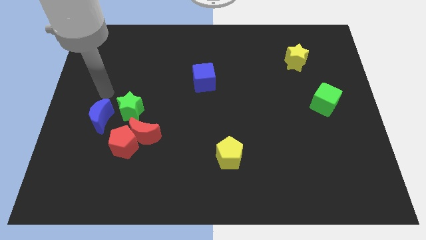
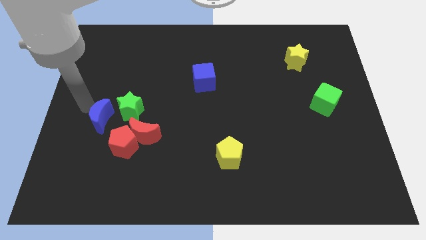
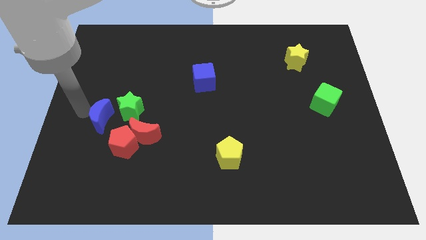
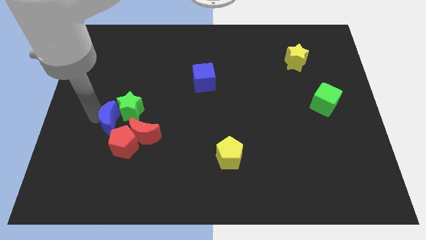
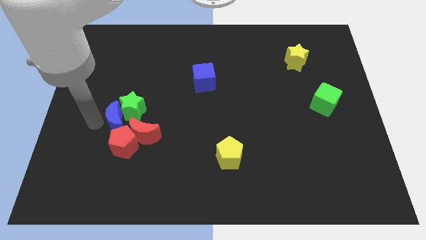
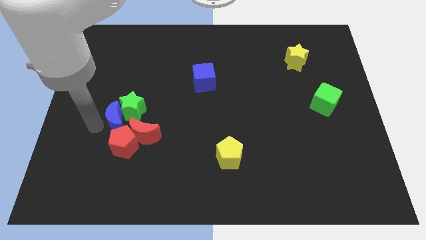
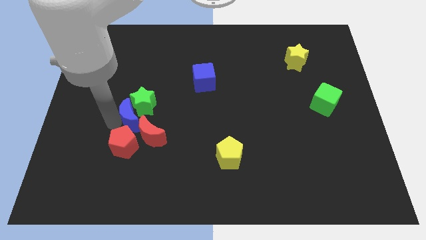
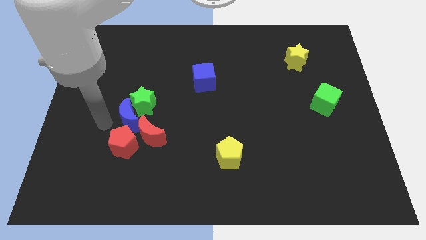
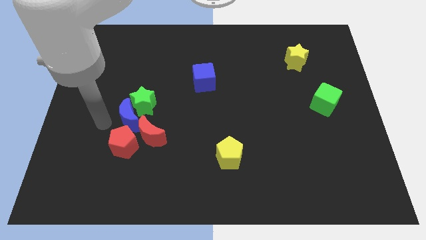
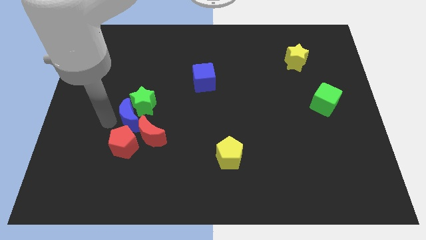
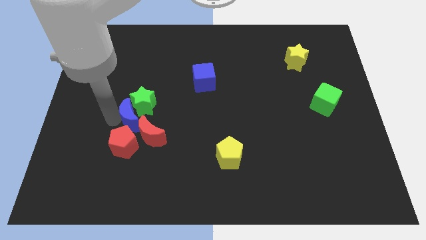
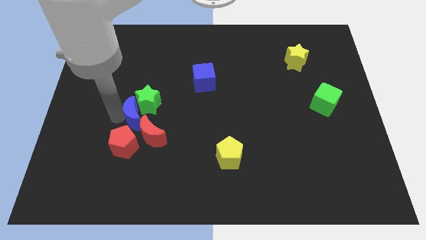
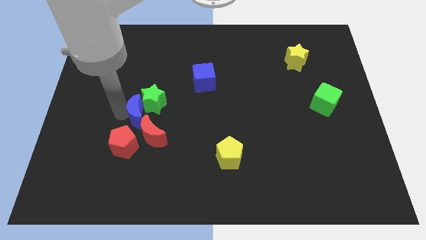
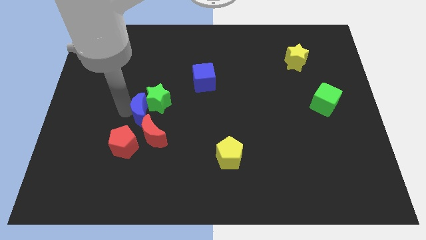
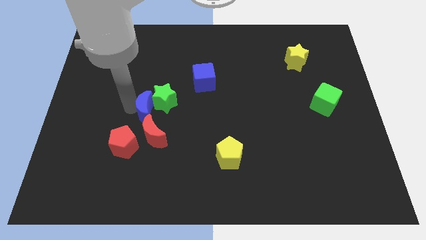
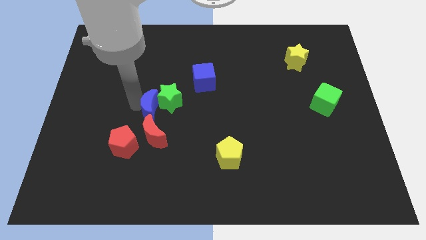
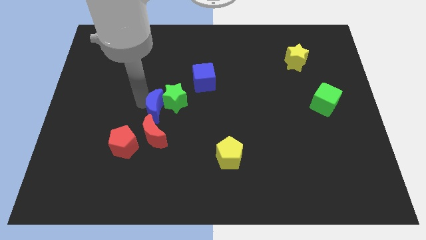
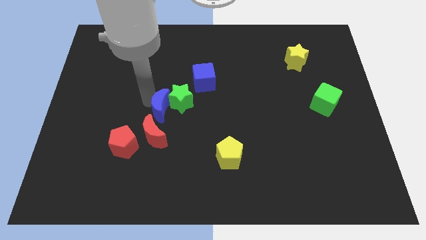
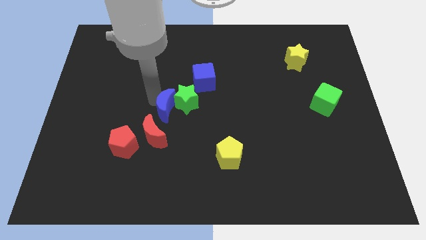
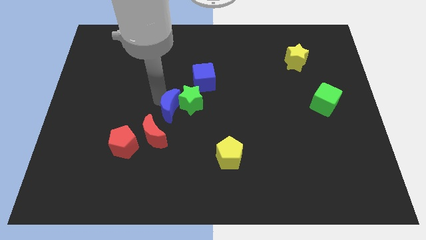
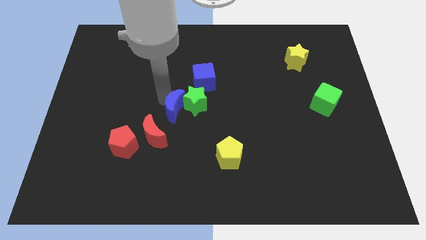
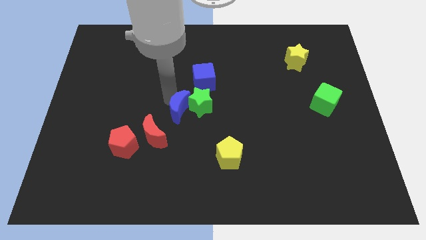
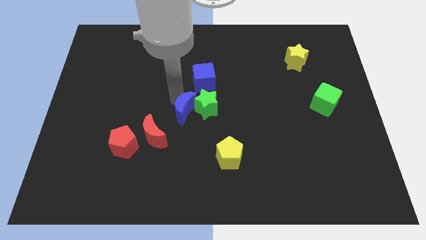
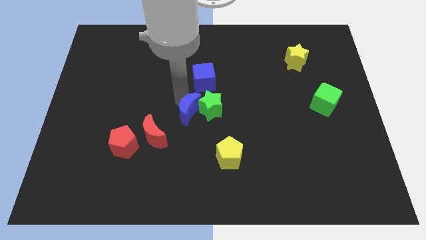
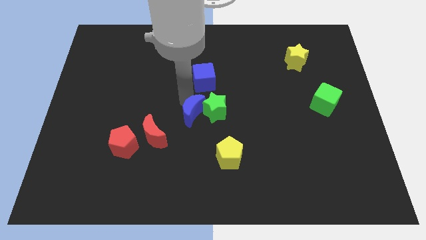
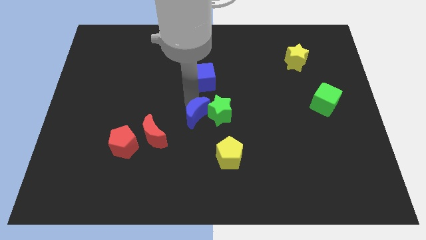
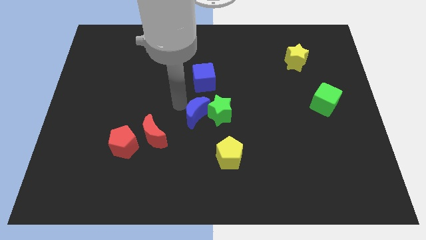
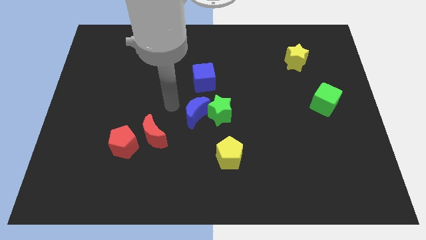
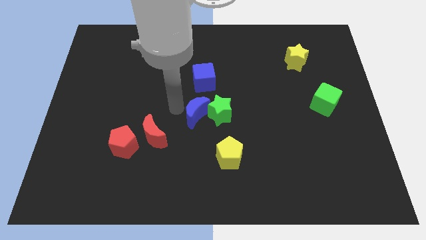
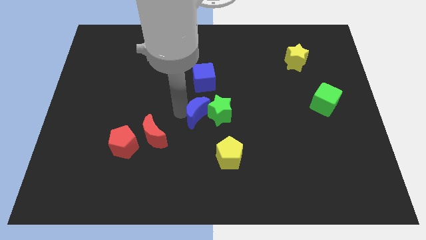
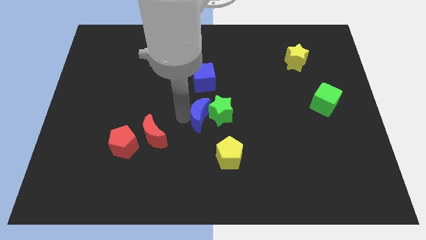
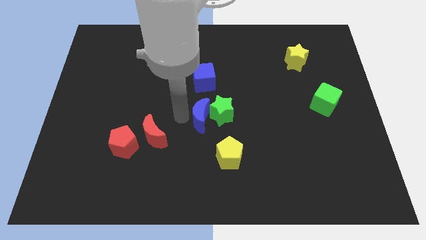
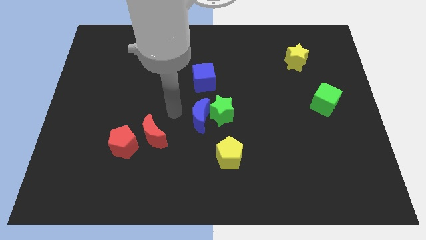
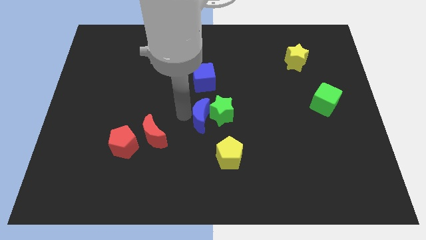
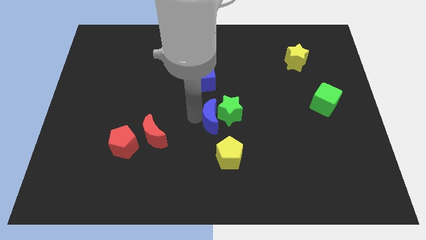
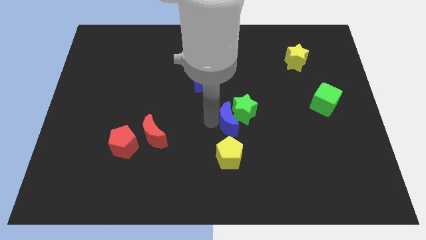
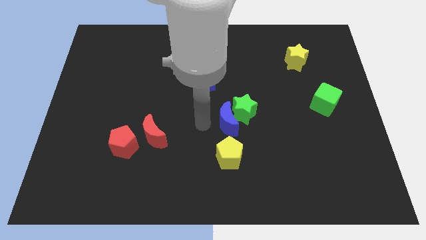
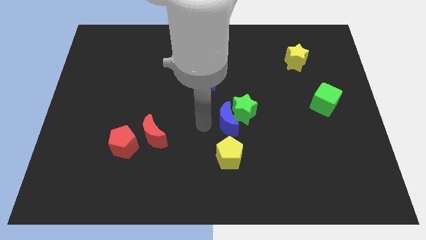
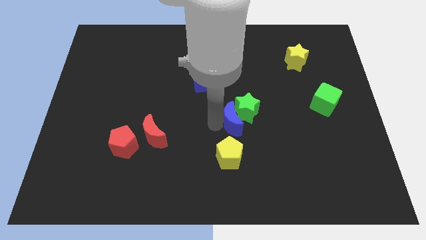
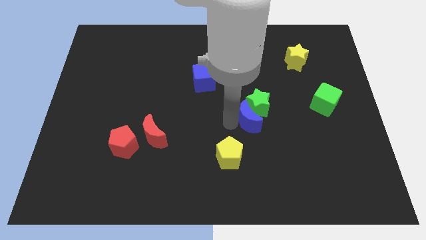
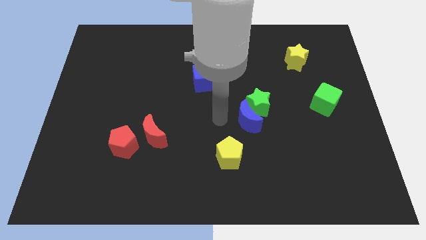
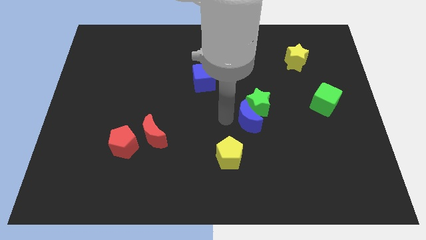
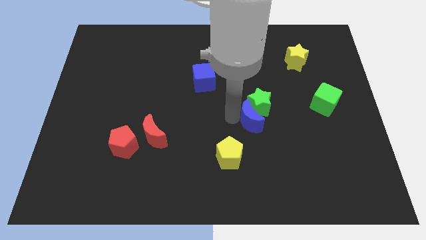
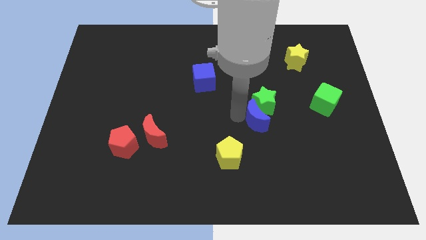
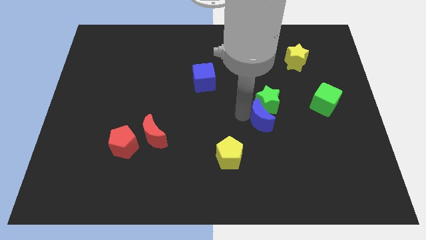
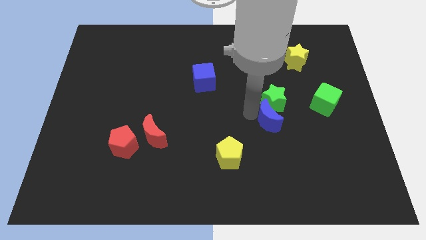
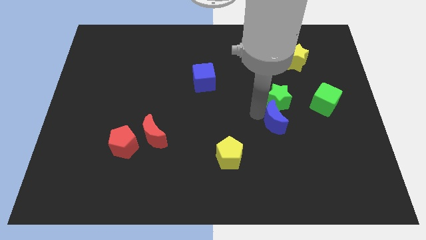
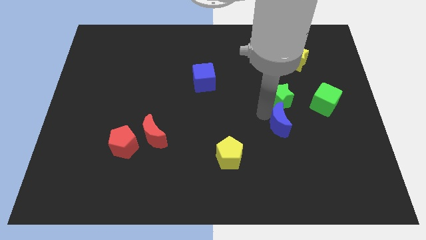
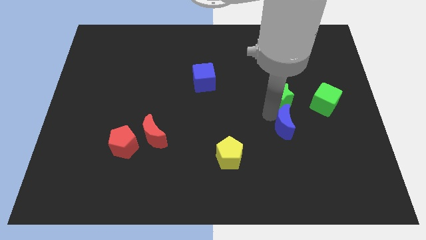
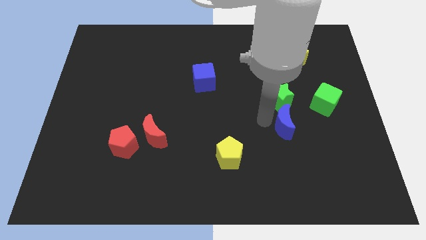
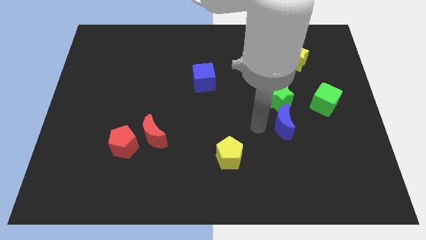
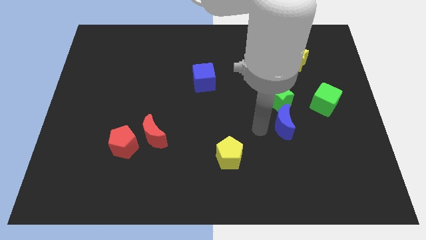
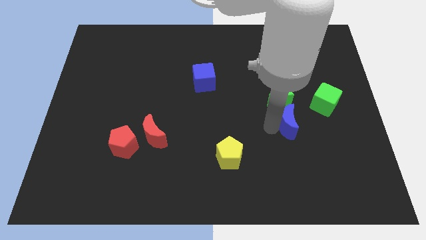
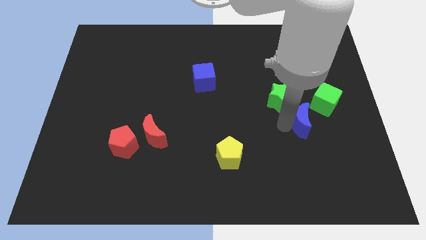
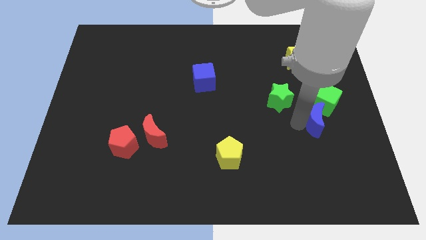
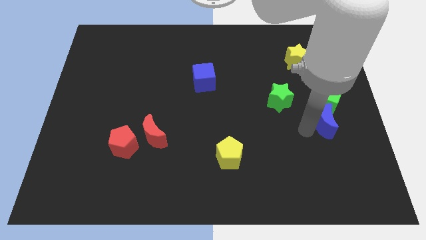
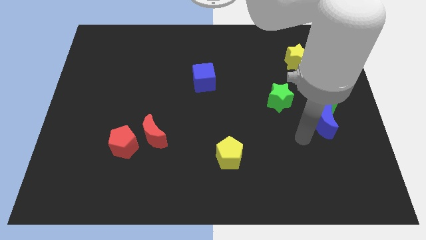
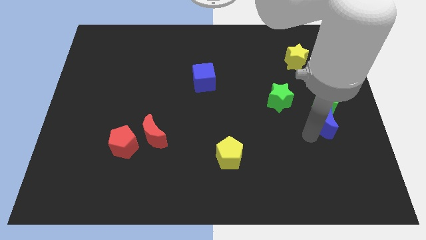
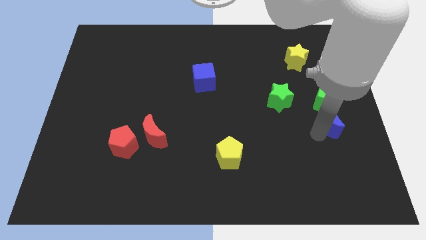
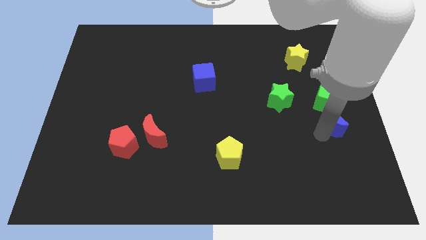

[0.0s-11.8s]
put the blue moon to the center right
